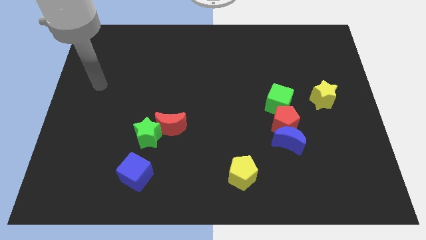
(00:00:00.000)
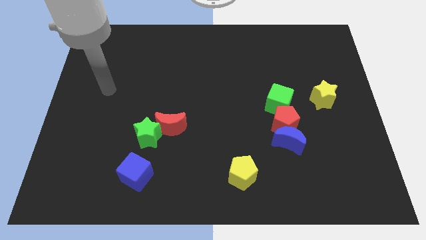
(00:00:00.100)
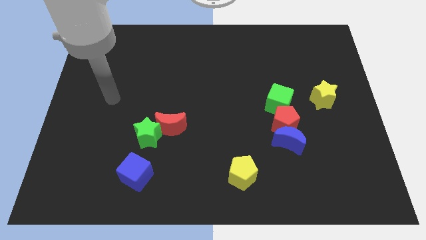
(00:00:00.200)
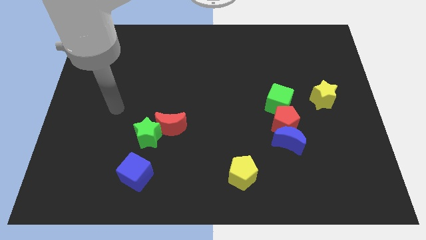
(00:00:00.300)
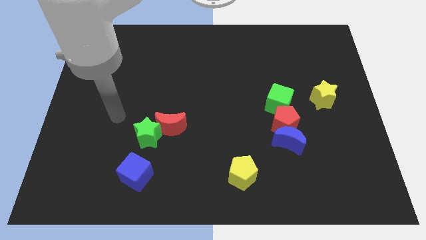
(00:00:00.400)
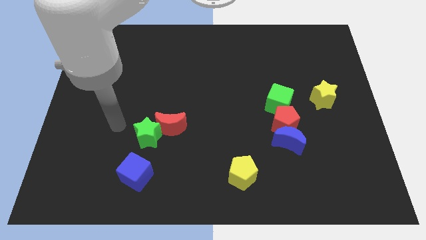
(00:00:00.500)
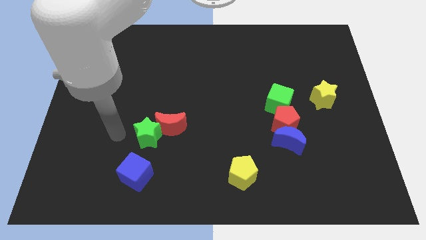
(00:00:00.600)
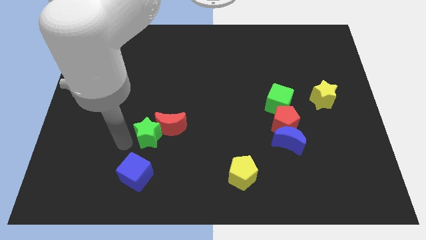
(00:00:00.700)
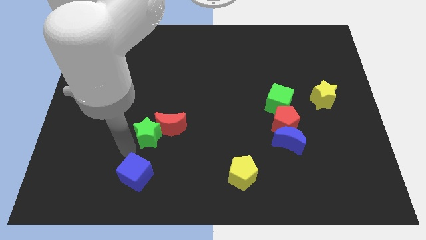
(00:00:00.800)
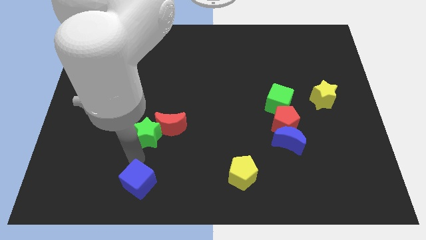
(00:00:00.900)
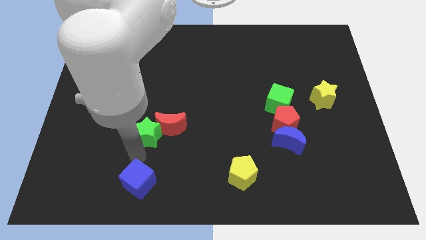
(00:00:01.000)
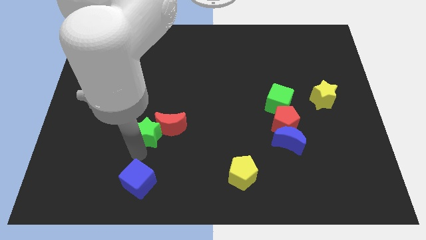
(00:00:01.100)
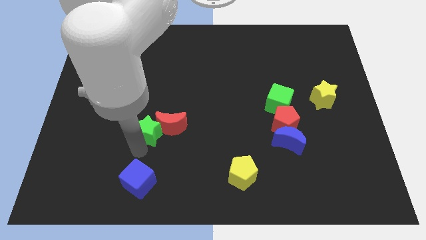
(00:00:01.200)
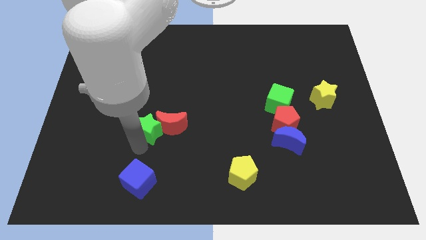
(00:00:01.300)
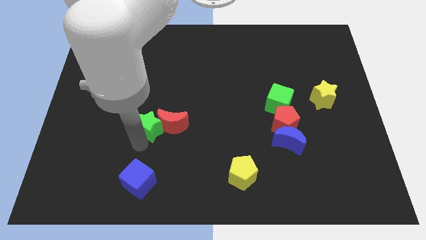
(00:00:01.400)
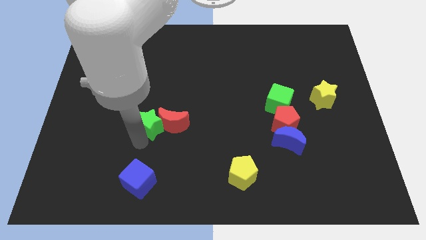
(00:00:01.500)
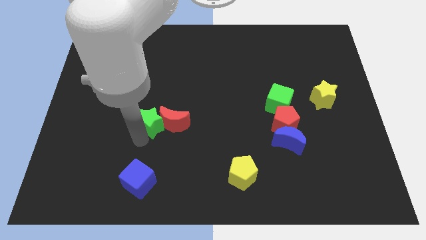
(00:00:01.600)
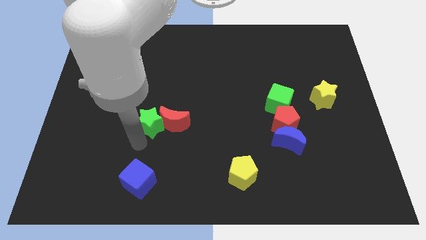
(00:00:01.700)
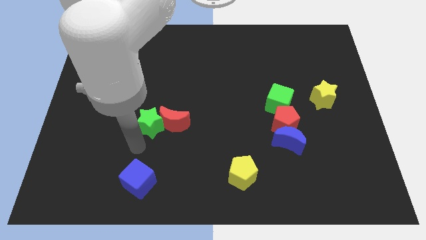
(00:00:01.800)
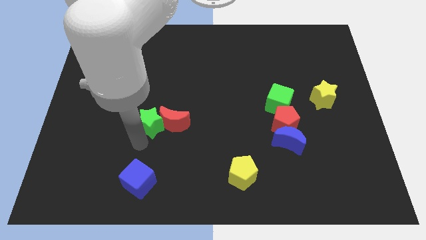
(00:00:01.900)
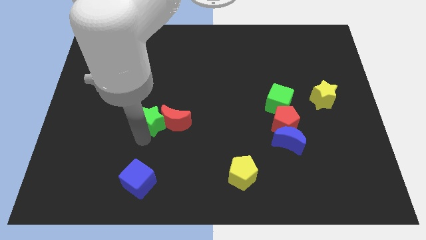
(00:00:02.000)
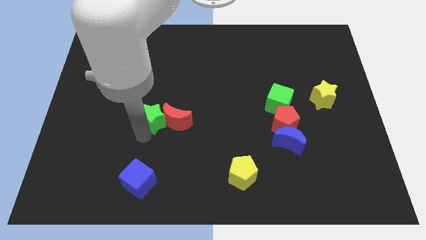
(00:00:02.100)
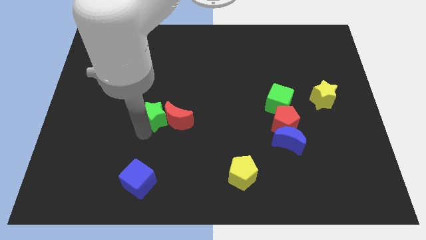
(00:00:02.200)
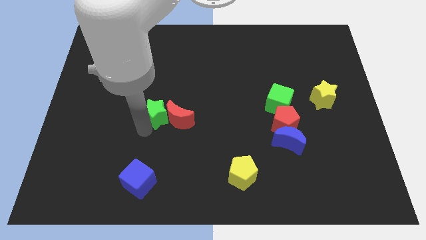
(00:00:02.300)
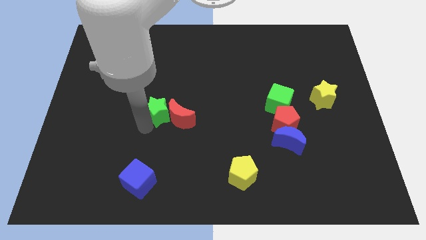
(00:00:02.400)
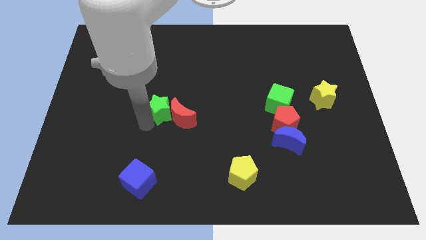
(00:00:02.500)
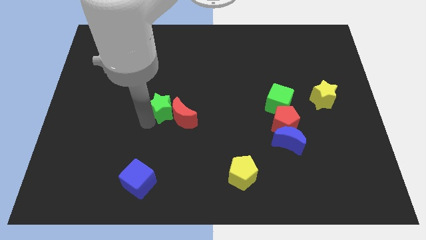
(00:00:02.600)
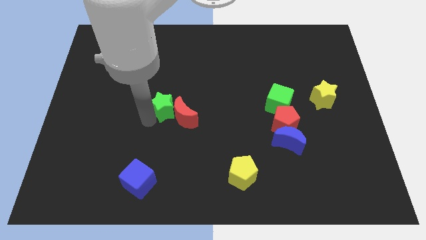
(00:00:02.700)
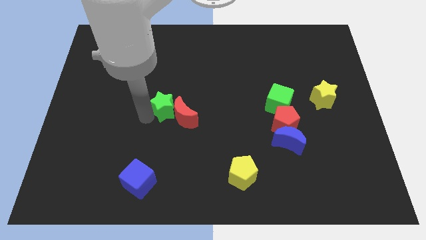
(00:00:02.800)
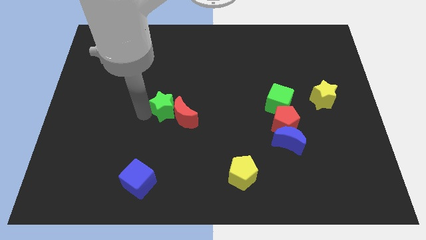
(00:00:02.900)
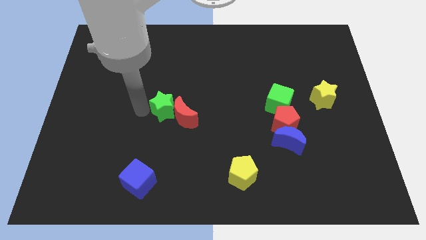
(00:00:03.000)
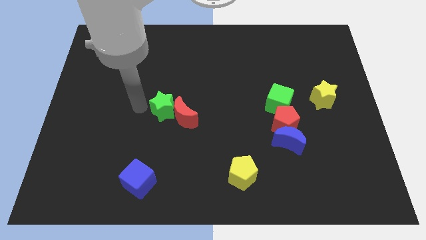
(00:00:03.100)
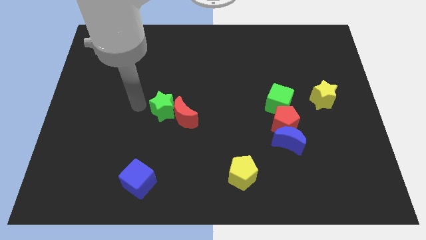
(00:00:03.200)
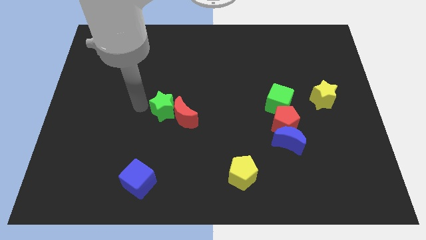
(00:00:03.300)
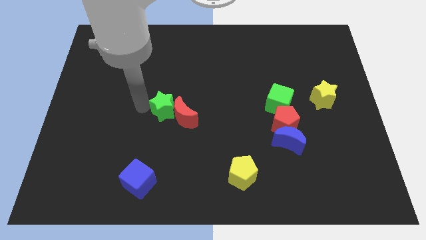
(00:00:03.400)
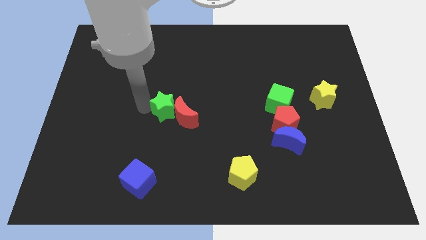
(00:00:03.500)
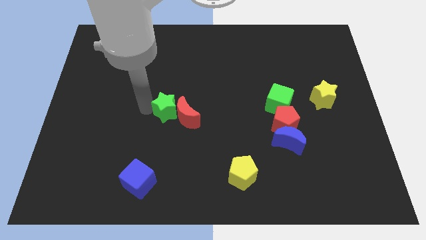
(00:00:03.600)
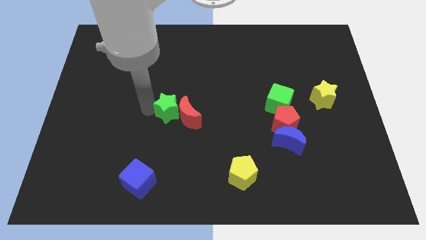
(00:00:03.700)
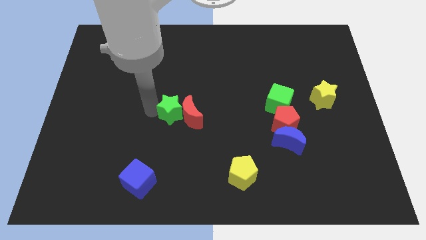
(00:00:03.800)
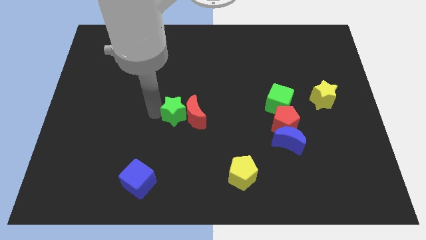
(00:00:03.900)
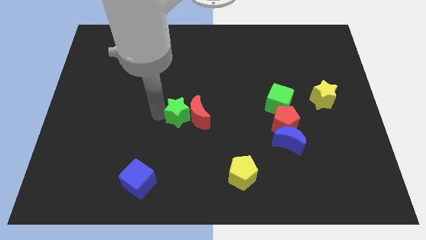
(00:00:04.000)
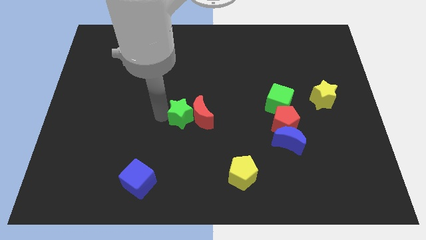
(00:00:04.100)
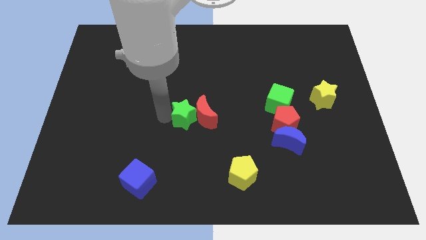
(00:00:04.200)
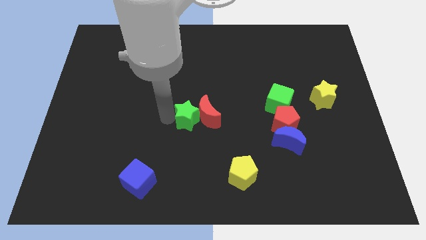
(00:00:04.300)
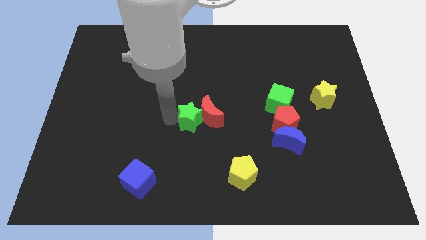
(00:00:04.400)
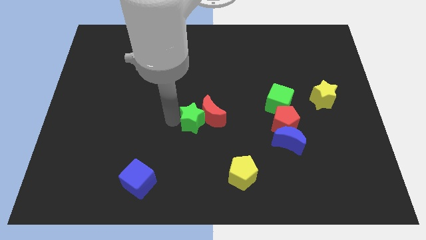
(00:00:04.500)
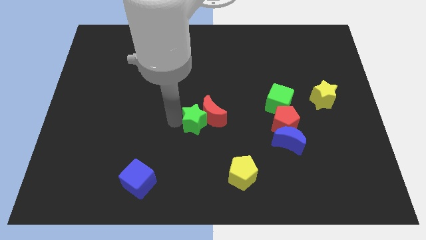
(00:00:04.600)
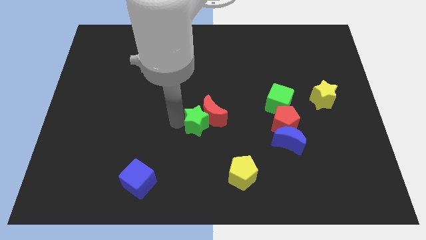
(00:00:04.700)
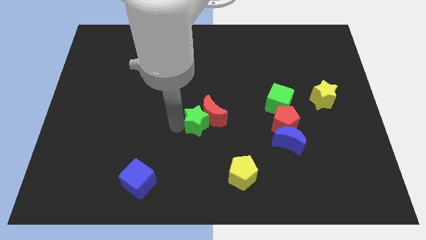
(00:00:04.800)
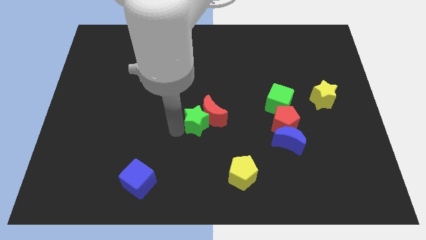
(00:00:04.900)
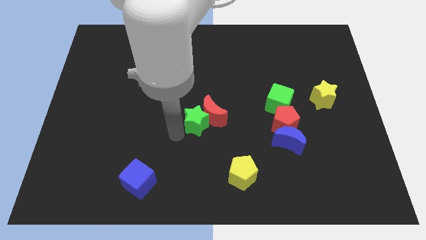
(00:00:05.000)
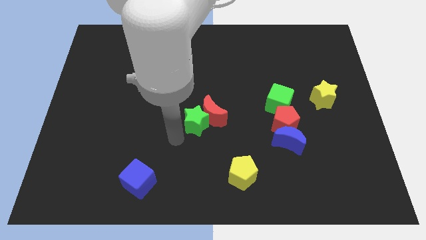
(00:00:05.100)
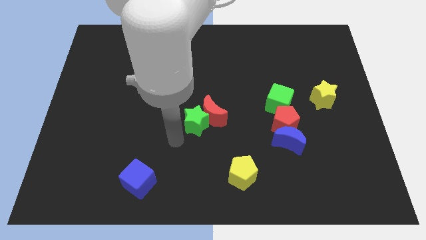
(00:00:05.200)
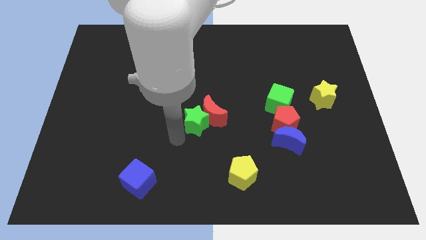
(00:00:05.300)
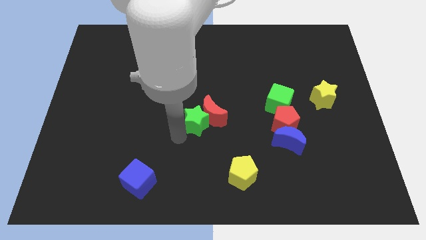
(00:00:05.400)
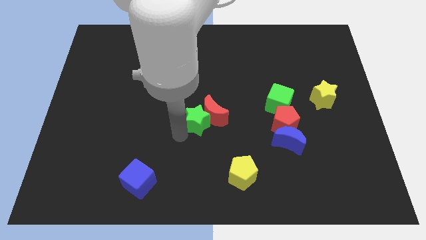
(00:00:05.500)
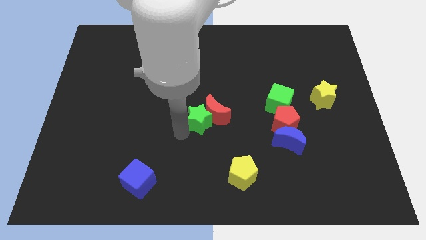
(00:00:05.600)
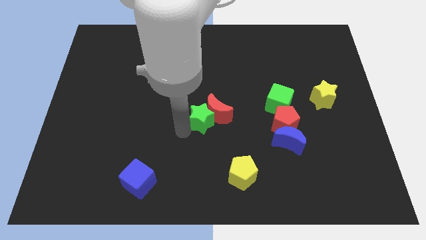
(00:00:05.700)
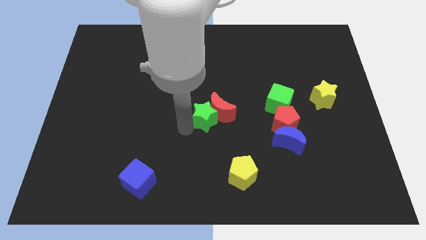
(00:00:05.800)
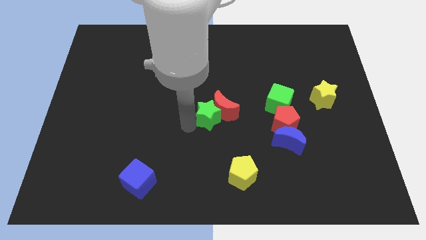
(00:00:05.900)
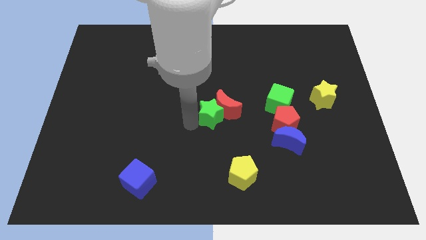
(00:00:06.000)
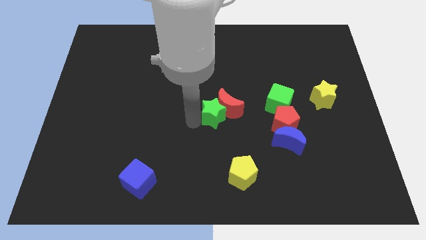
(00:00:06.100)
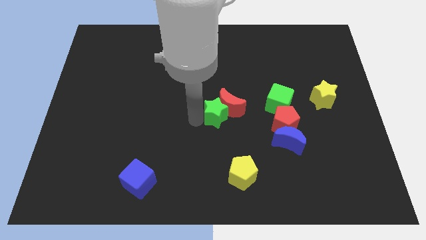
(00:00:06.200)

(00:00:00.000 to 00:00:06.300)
put the green star just left of the green cube
